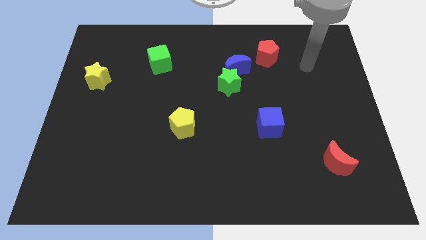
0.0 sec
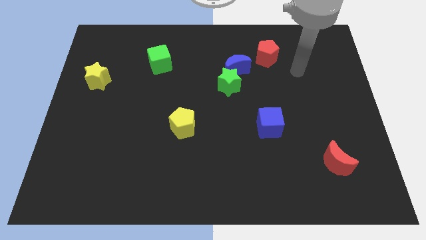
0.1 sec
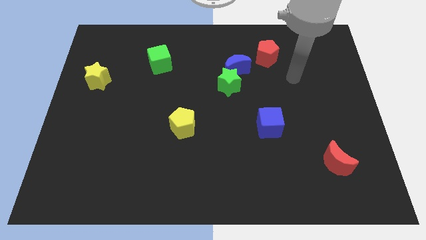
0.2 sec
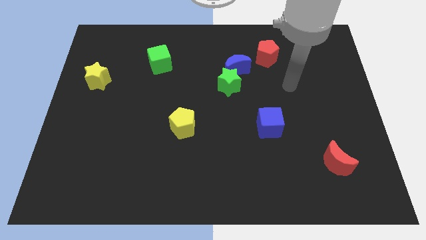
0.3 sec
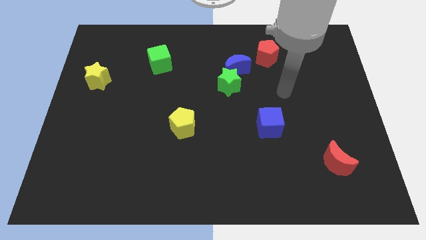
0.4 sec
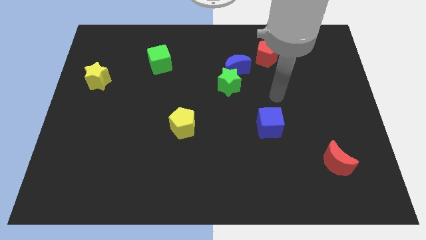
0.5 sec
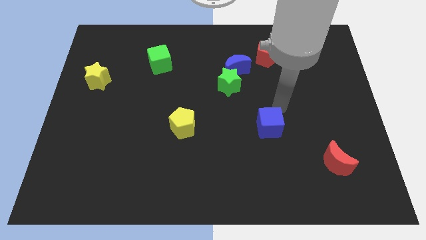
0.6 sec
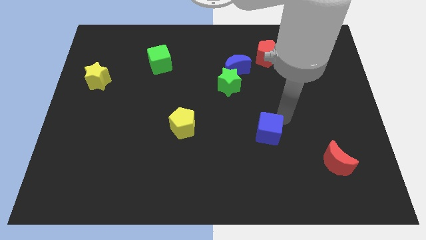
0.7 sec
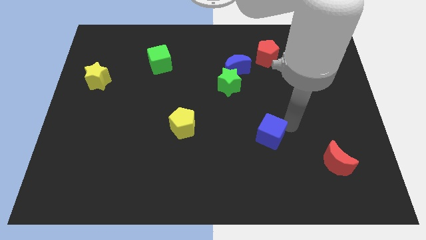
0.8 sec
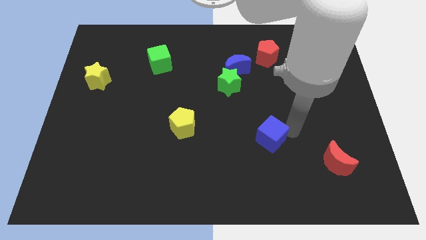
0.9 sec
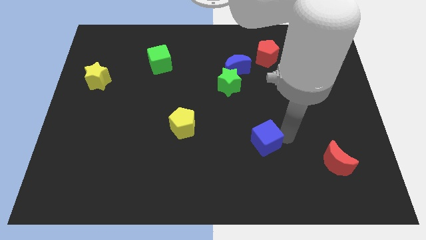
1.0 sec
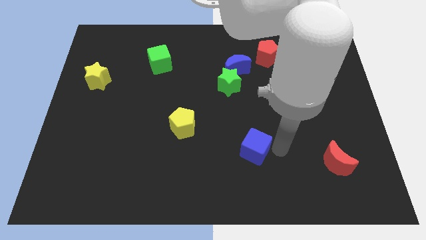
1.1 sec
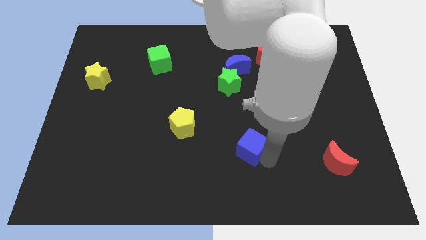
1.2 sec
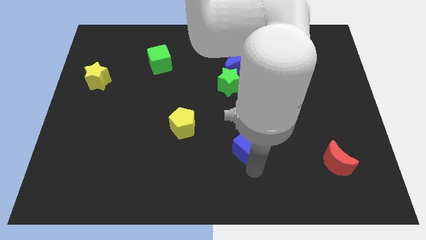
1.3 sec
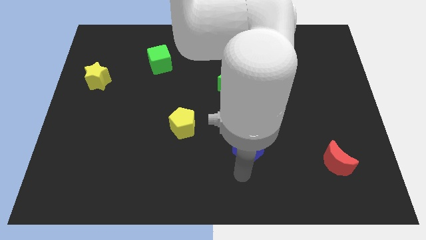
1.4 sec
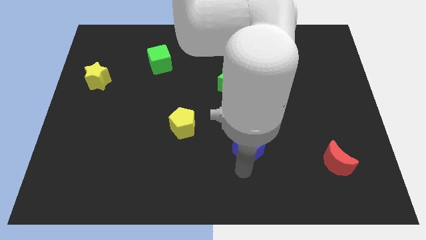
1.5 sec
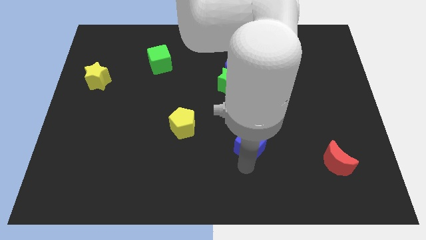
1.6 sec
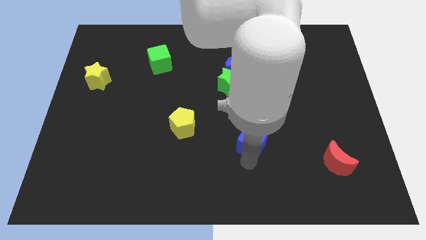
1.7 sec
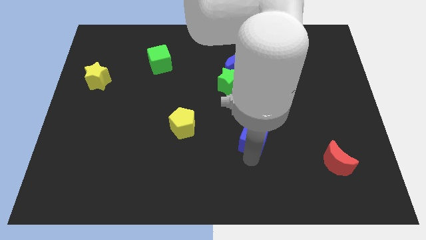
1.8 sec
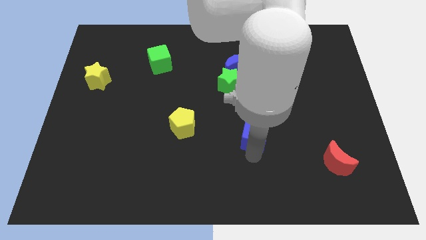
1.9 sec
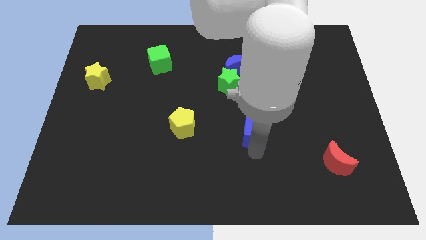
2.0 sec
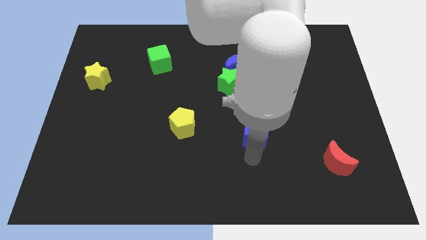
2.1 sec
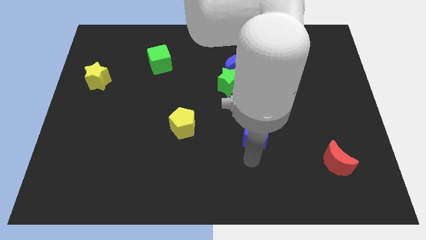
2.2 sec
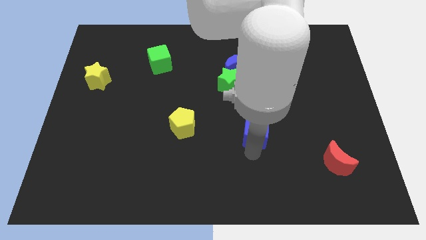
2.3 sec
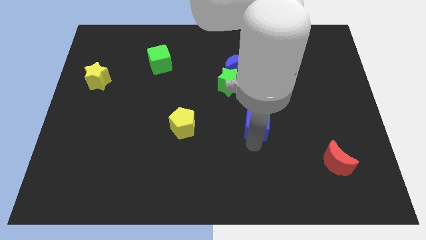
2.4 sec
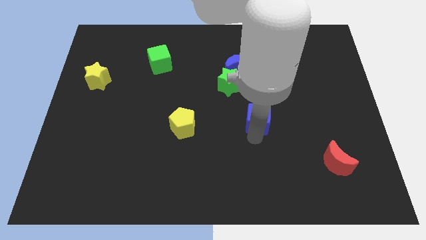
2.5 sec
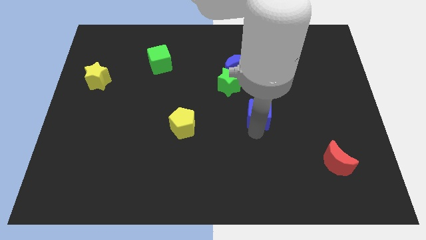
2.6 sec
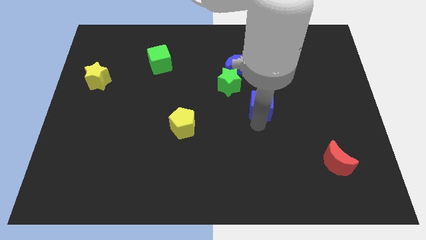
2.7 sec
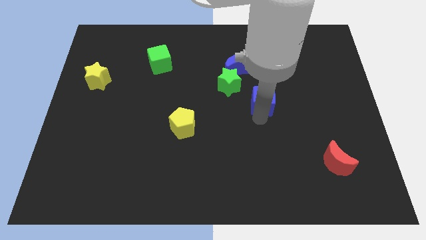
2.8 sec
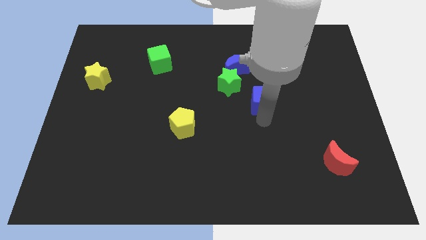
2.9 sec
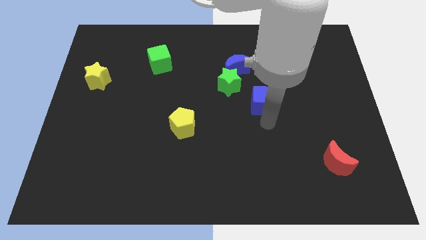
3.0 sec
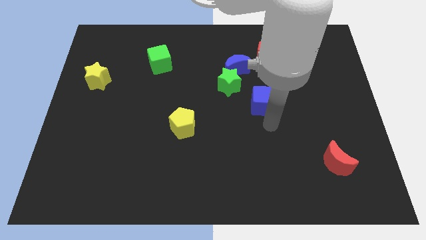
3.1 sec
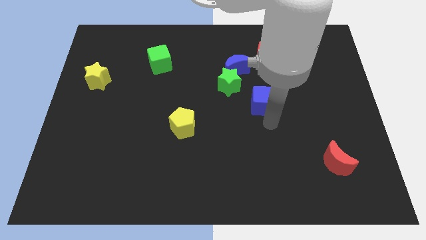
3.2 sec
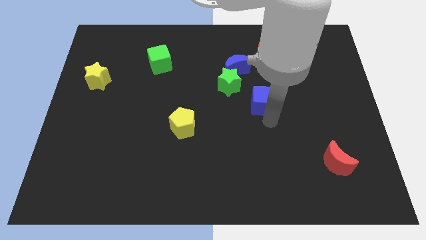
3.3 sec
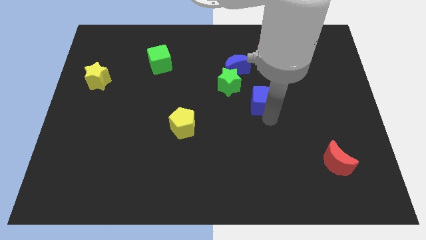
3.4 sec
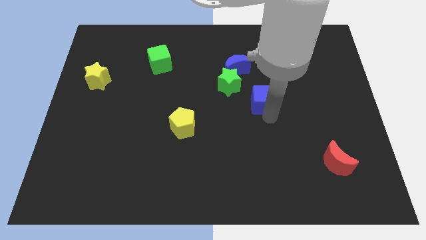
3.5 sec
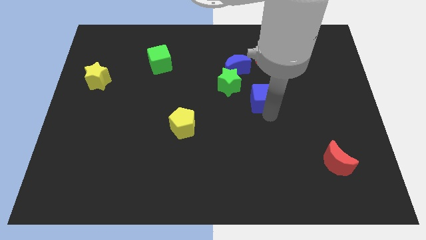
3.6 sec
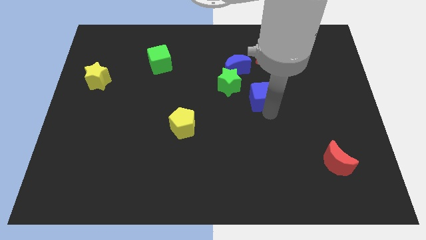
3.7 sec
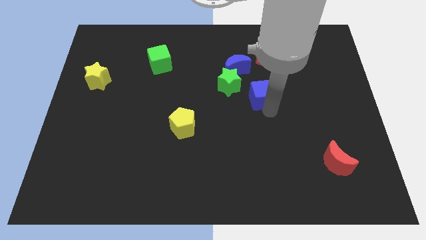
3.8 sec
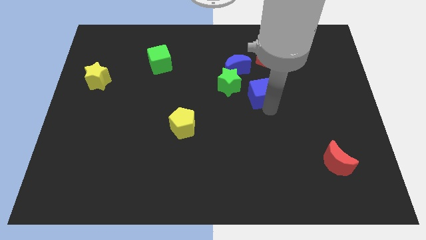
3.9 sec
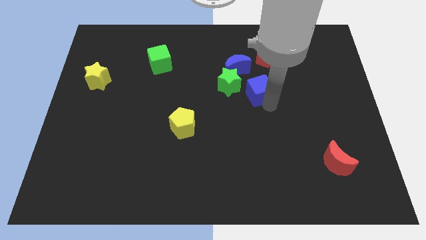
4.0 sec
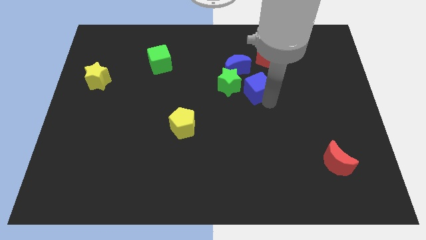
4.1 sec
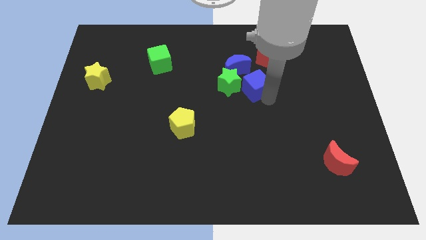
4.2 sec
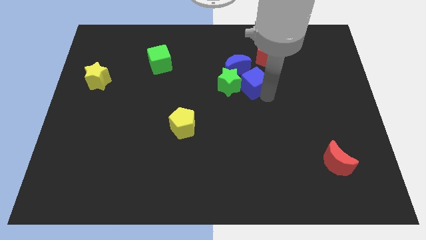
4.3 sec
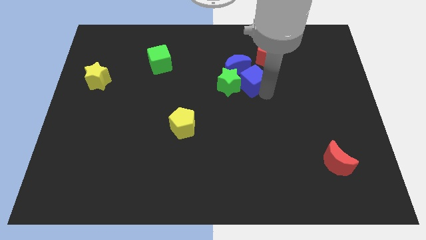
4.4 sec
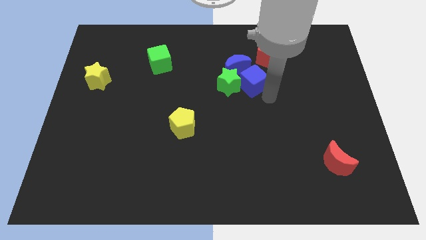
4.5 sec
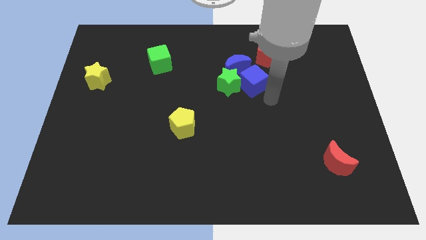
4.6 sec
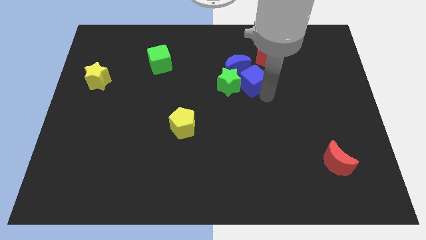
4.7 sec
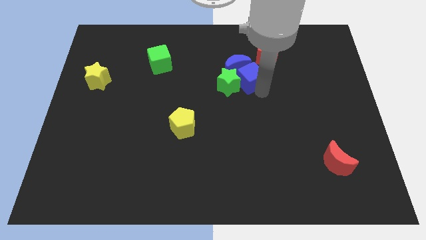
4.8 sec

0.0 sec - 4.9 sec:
push the blue cube towards the blue moon

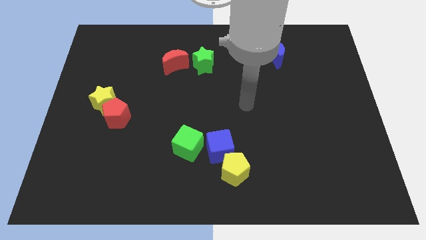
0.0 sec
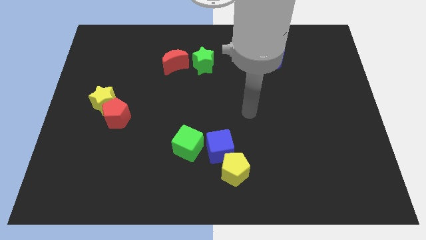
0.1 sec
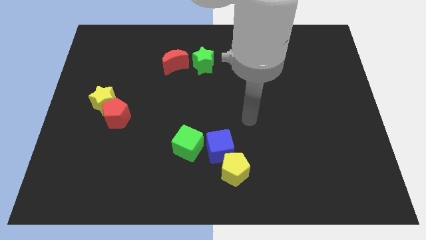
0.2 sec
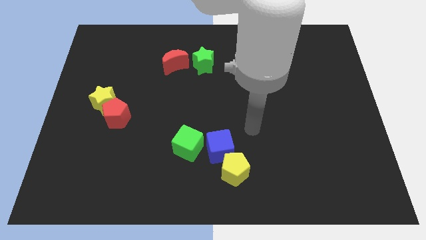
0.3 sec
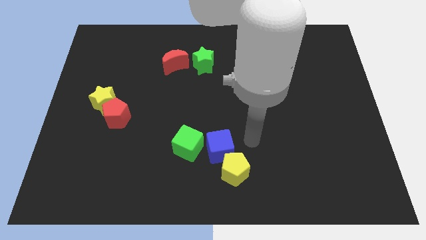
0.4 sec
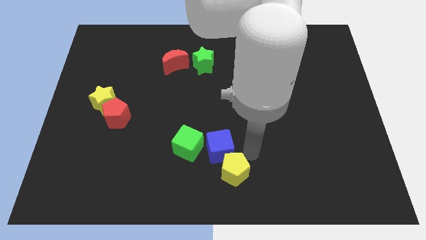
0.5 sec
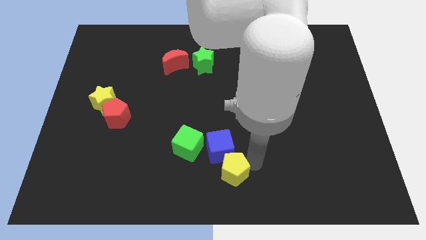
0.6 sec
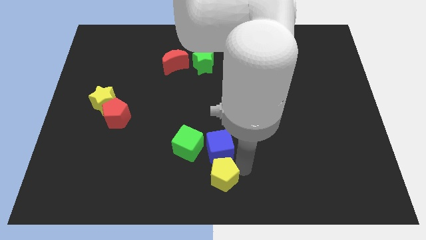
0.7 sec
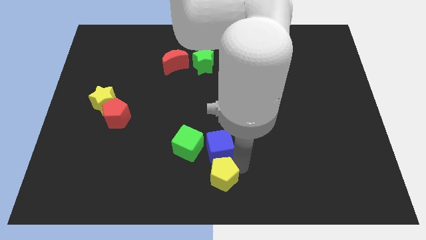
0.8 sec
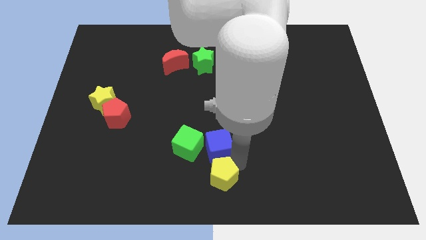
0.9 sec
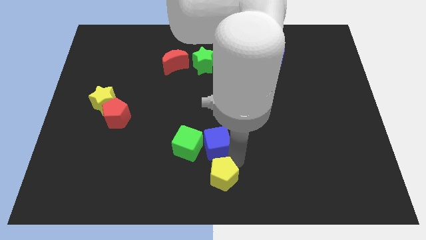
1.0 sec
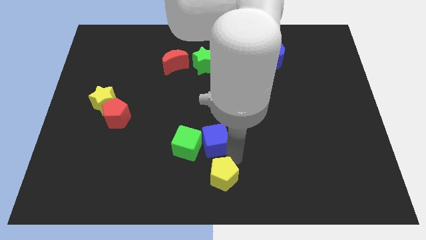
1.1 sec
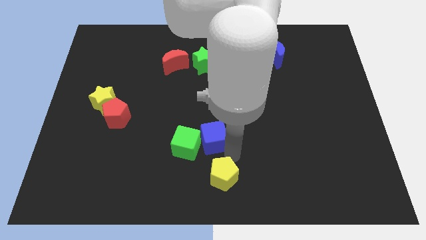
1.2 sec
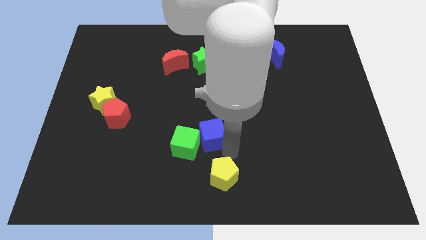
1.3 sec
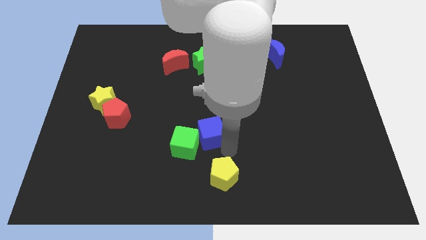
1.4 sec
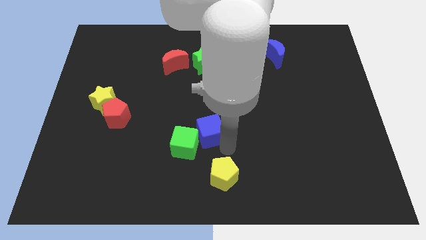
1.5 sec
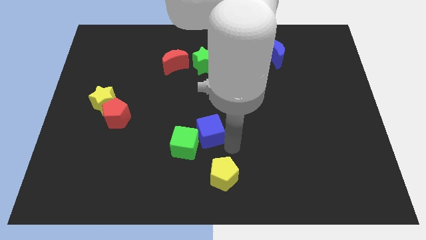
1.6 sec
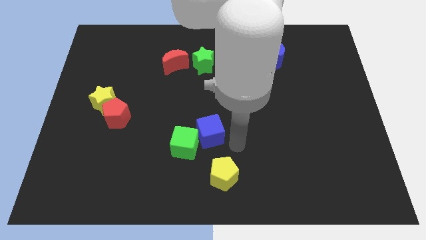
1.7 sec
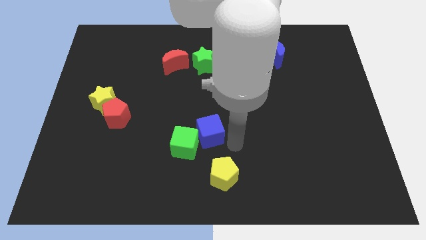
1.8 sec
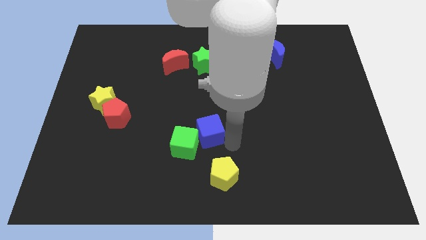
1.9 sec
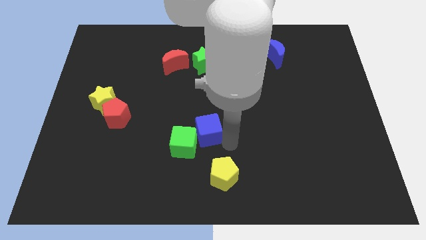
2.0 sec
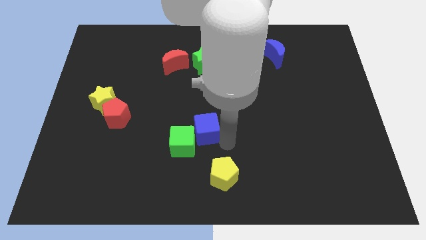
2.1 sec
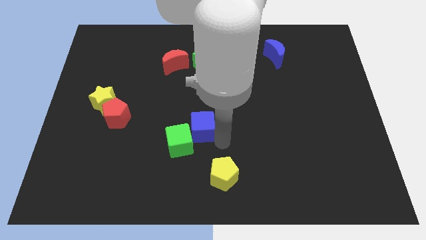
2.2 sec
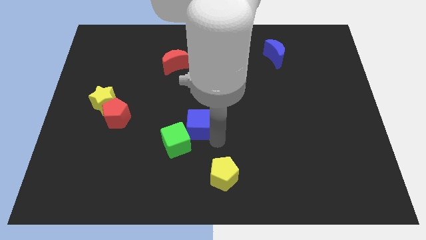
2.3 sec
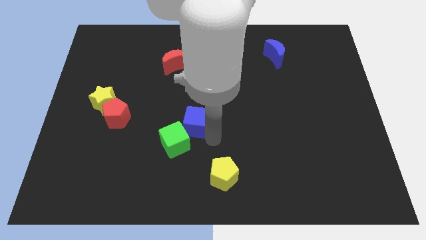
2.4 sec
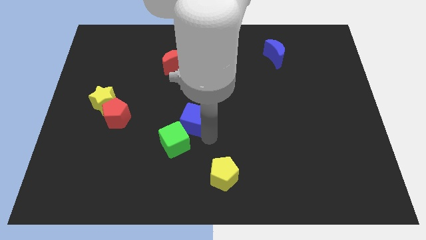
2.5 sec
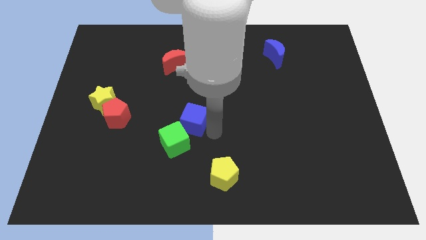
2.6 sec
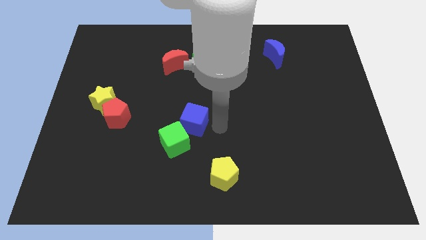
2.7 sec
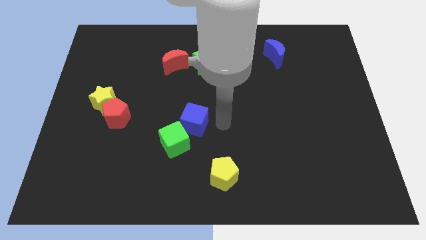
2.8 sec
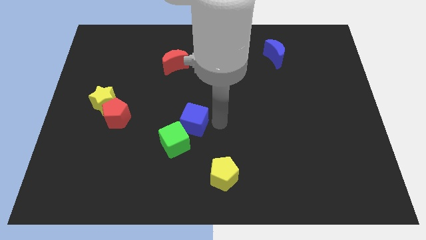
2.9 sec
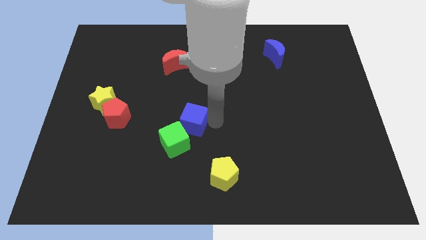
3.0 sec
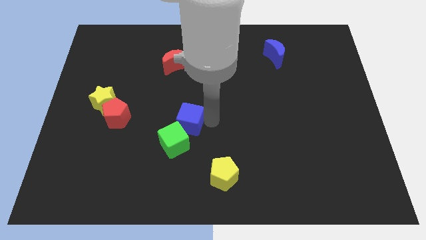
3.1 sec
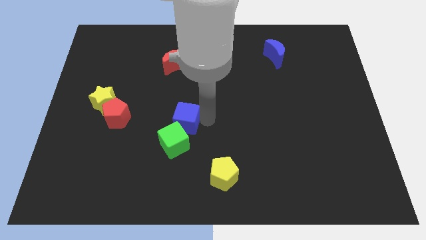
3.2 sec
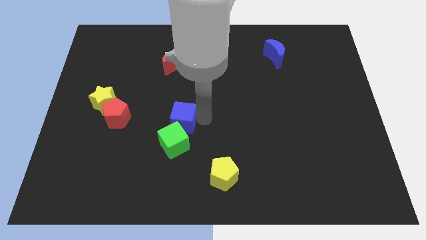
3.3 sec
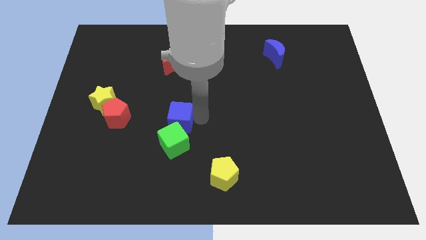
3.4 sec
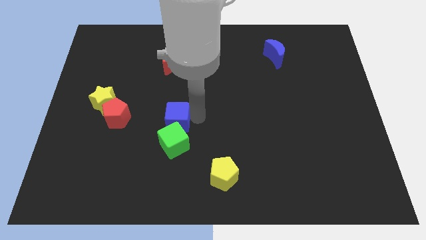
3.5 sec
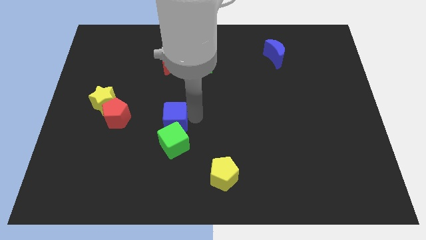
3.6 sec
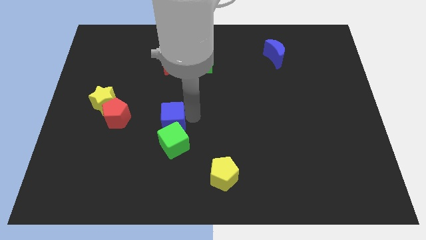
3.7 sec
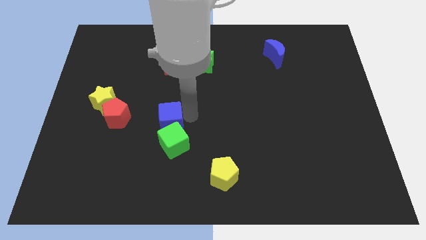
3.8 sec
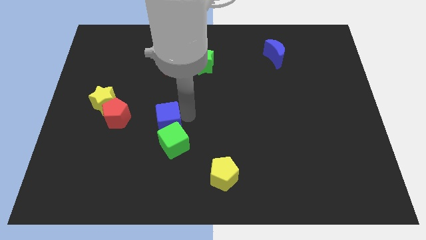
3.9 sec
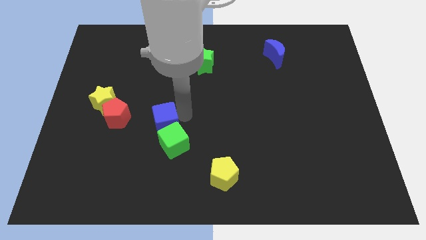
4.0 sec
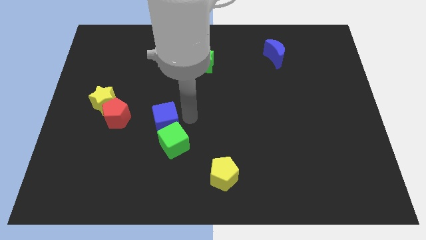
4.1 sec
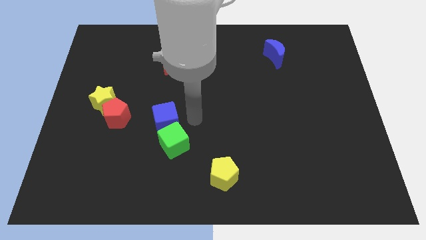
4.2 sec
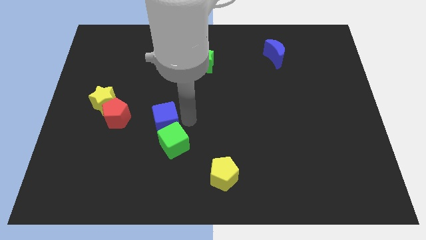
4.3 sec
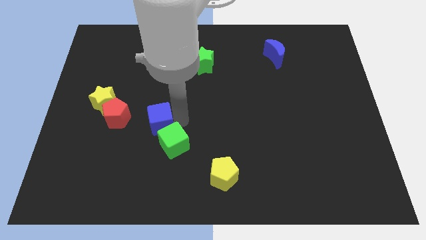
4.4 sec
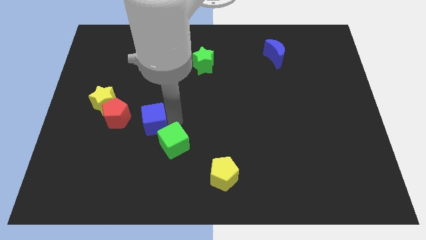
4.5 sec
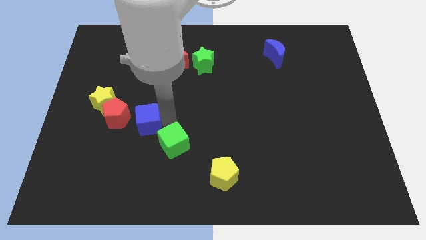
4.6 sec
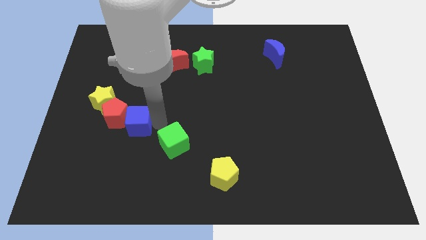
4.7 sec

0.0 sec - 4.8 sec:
put the blue cube next to the red pentagon
